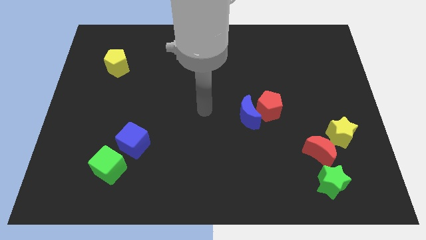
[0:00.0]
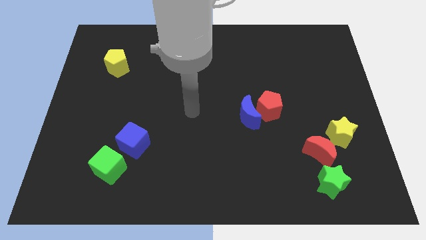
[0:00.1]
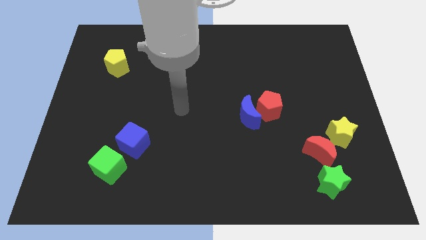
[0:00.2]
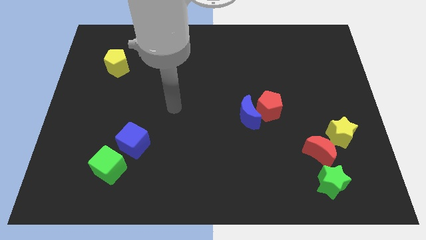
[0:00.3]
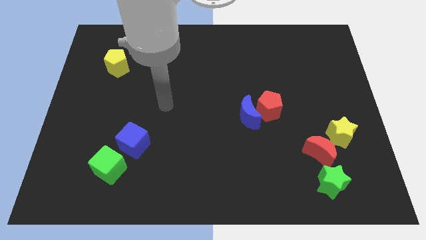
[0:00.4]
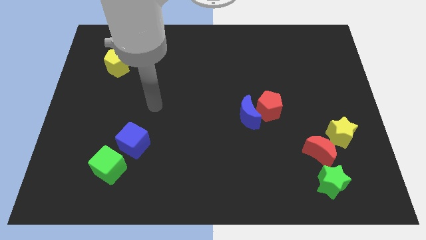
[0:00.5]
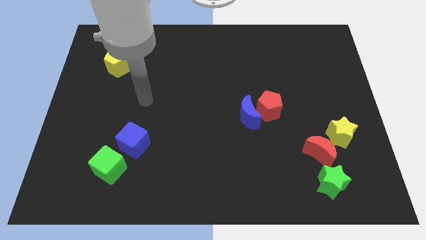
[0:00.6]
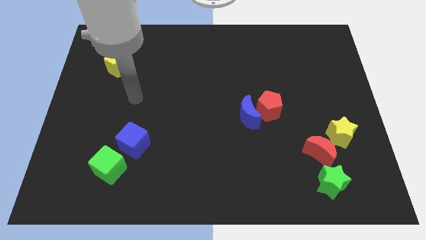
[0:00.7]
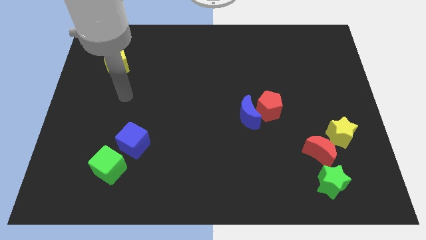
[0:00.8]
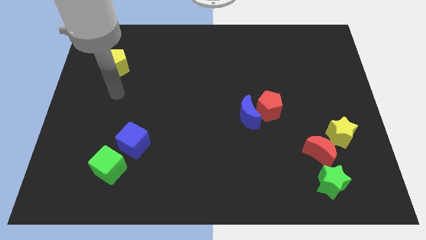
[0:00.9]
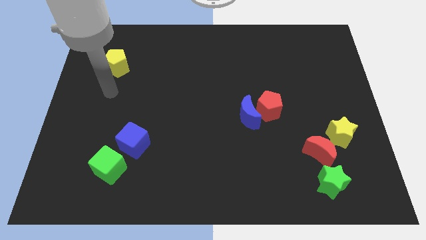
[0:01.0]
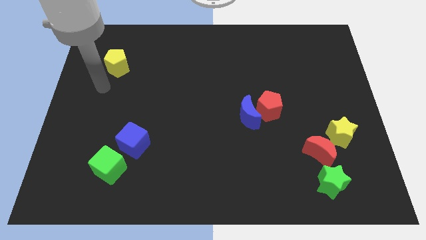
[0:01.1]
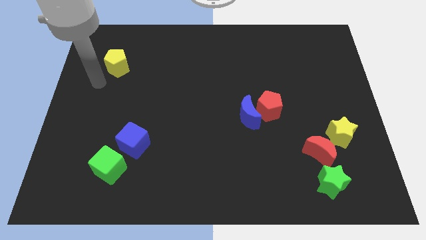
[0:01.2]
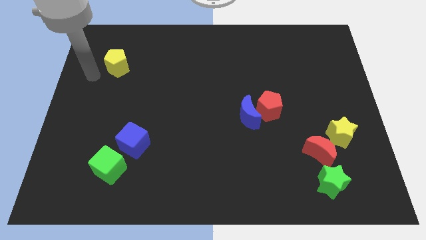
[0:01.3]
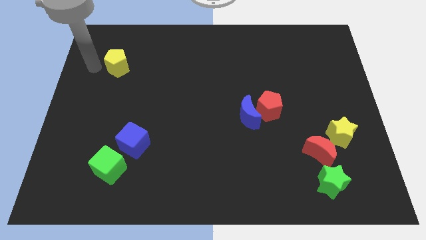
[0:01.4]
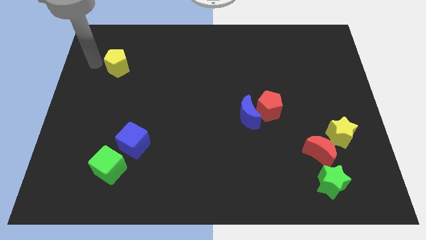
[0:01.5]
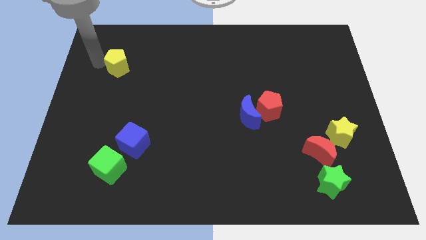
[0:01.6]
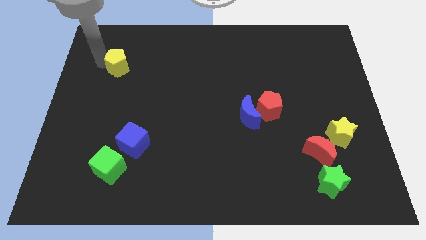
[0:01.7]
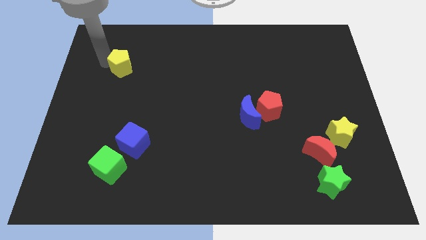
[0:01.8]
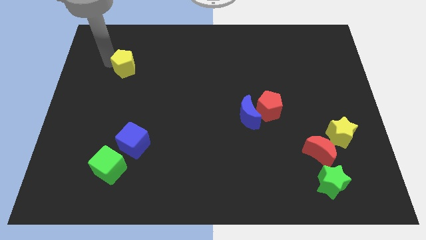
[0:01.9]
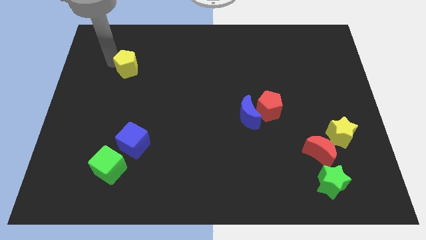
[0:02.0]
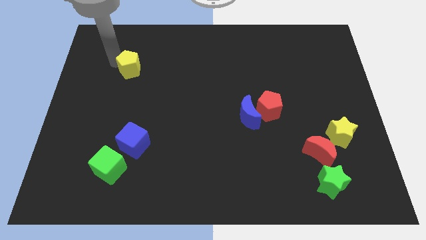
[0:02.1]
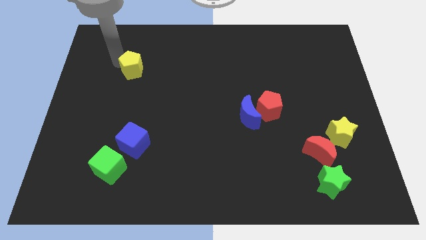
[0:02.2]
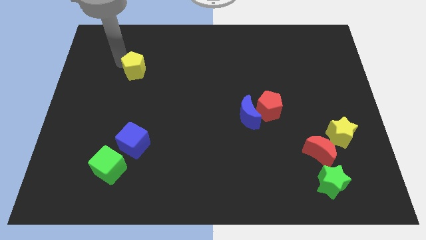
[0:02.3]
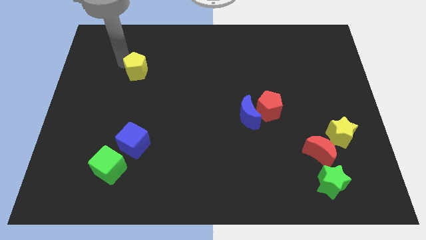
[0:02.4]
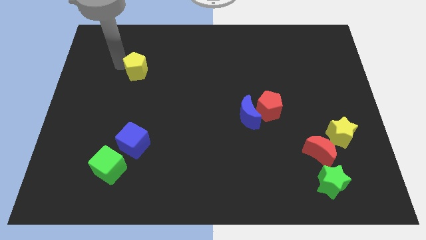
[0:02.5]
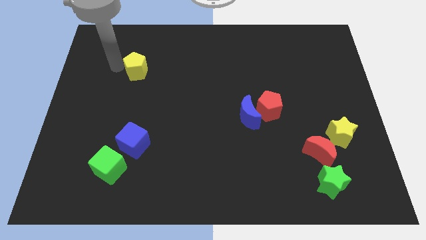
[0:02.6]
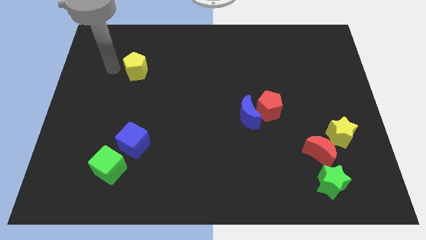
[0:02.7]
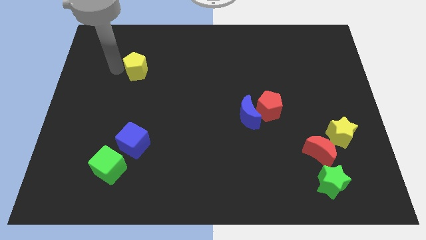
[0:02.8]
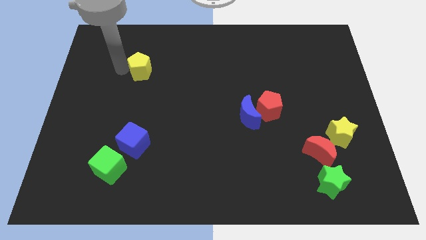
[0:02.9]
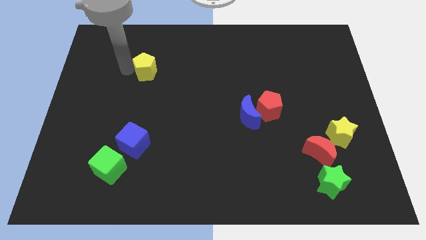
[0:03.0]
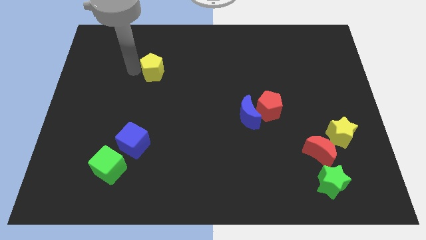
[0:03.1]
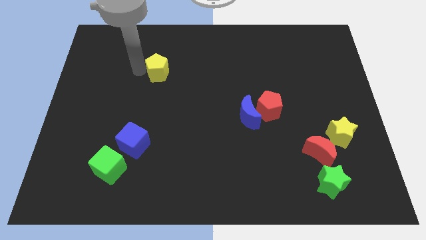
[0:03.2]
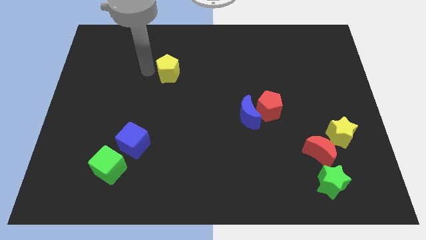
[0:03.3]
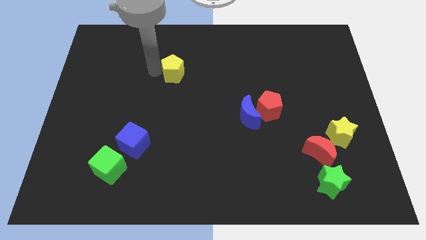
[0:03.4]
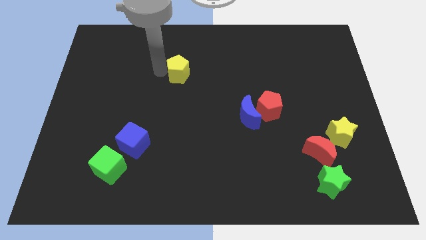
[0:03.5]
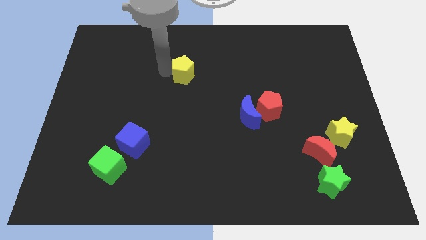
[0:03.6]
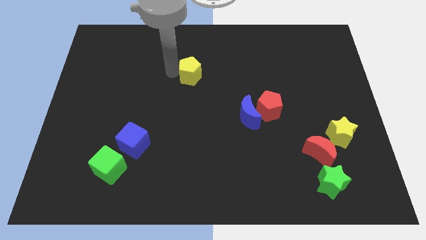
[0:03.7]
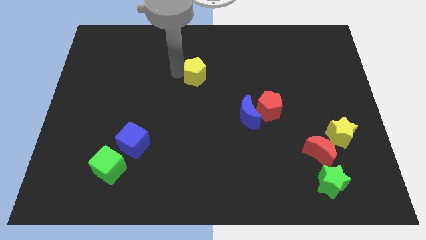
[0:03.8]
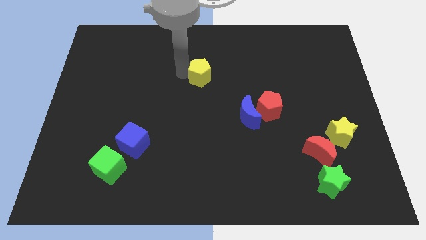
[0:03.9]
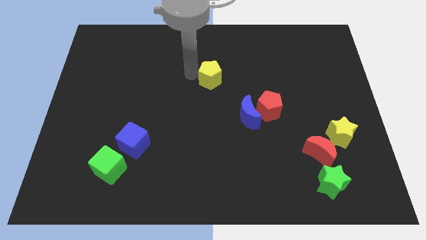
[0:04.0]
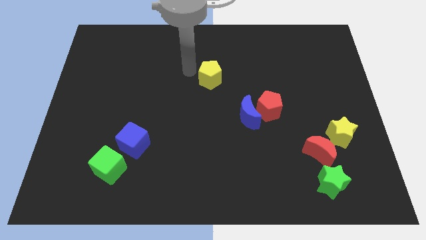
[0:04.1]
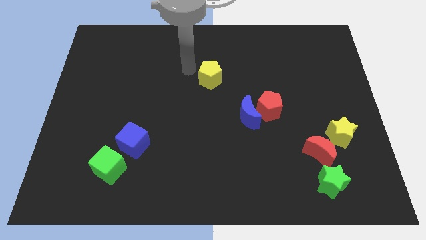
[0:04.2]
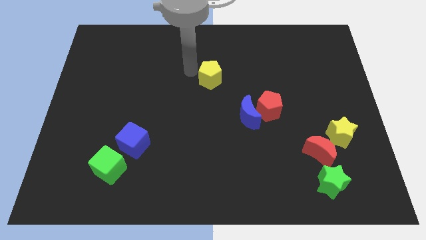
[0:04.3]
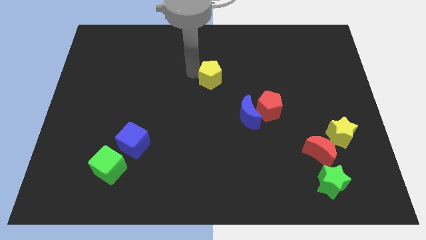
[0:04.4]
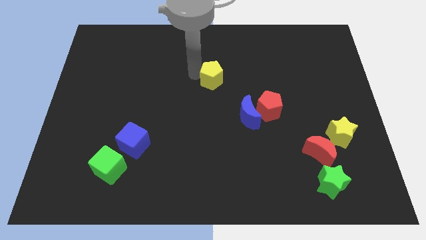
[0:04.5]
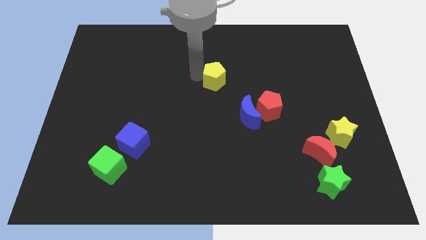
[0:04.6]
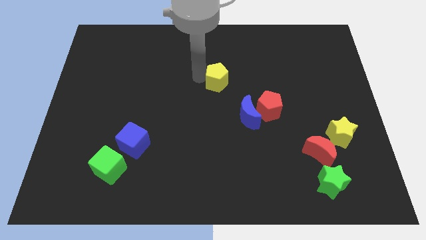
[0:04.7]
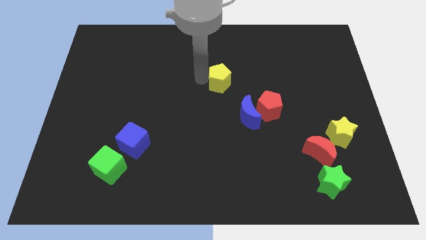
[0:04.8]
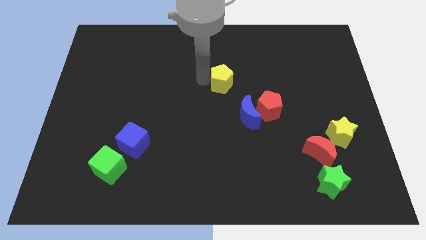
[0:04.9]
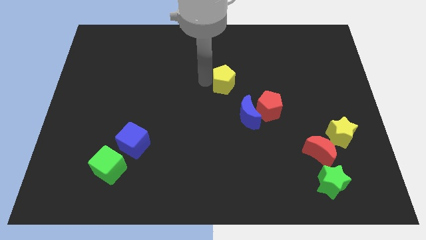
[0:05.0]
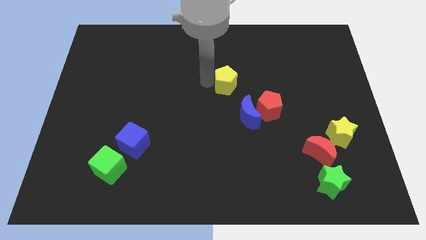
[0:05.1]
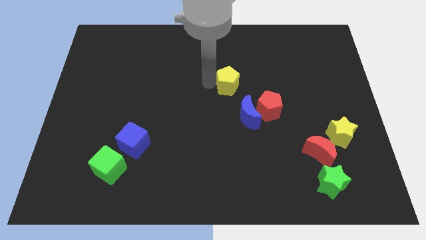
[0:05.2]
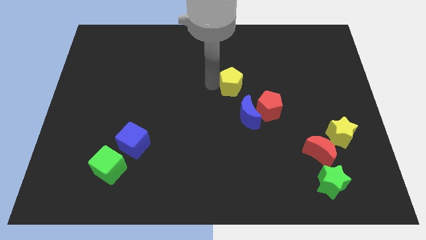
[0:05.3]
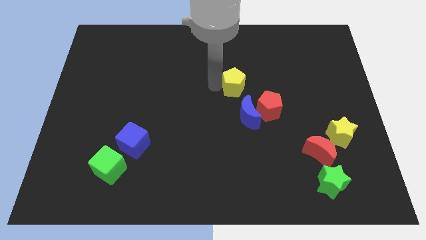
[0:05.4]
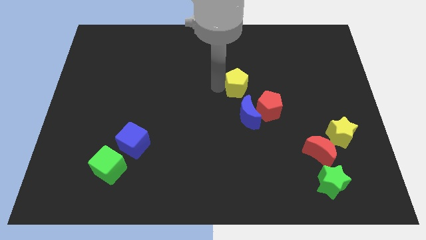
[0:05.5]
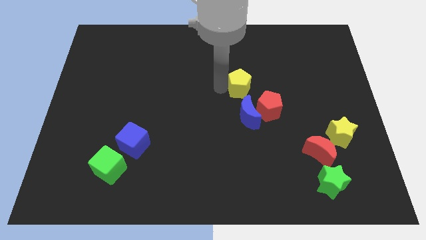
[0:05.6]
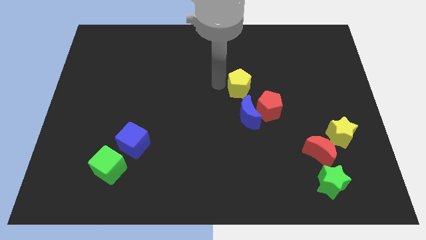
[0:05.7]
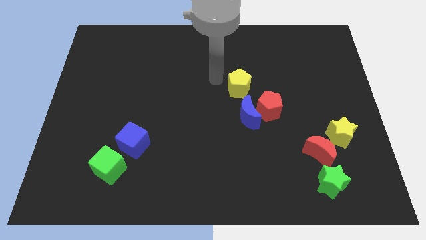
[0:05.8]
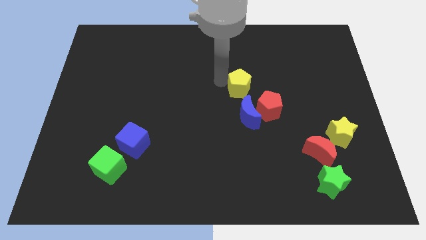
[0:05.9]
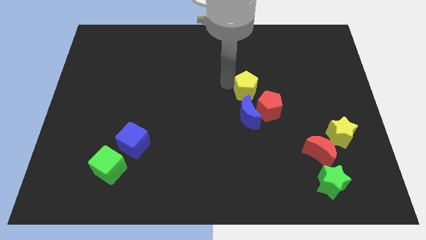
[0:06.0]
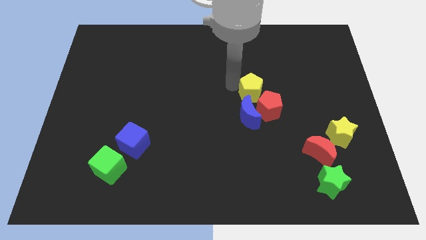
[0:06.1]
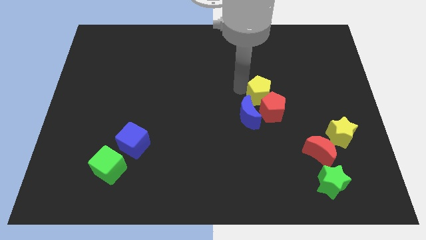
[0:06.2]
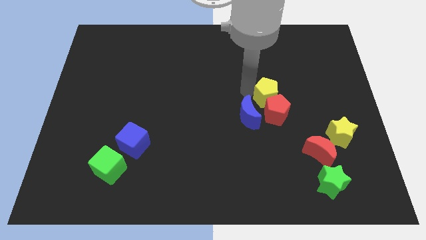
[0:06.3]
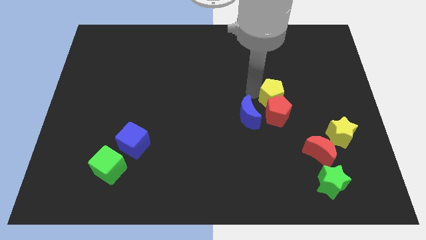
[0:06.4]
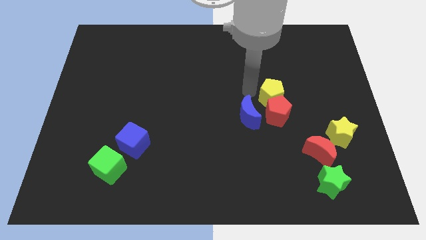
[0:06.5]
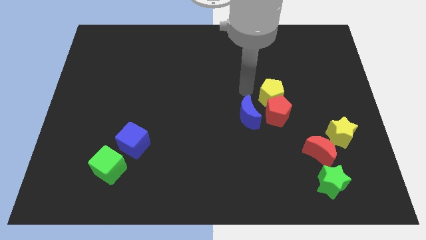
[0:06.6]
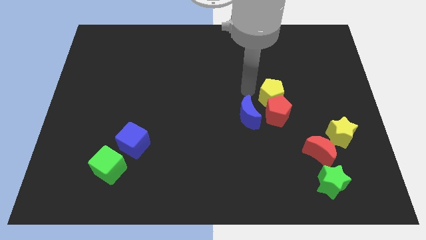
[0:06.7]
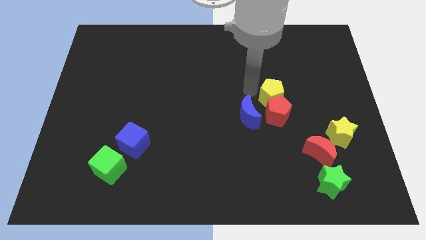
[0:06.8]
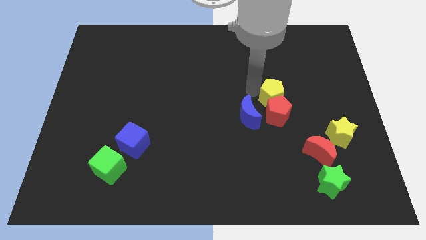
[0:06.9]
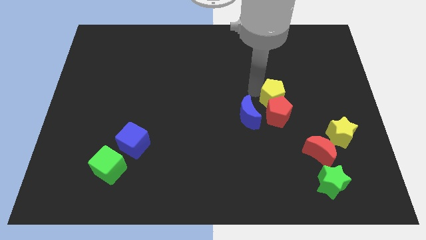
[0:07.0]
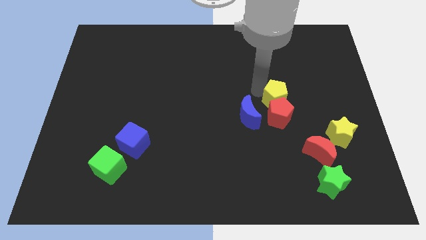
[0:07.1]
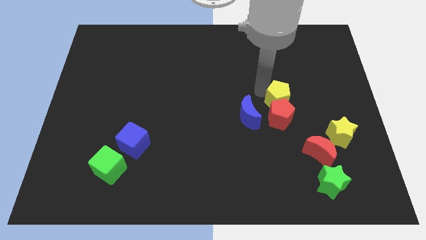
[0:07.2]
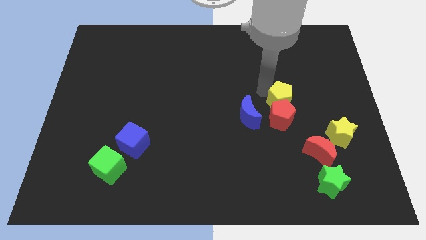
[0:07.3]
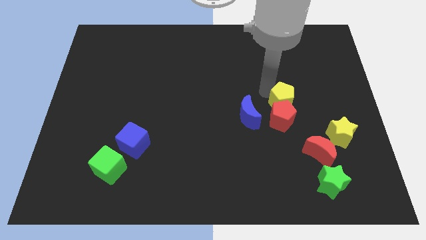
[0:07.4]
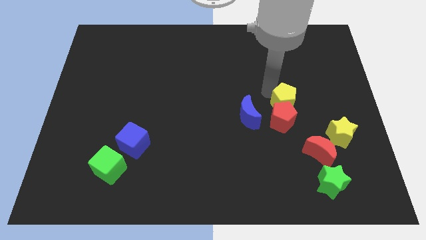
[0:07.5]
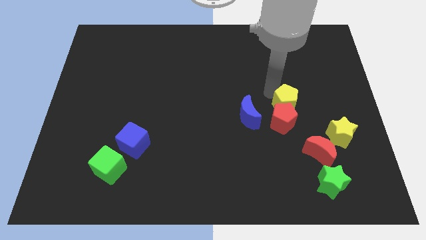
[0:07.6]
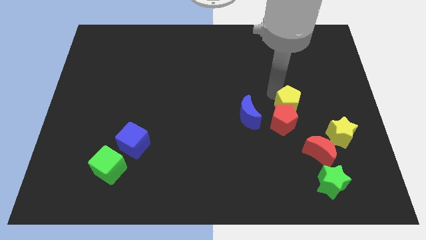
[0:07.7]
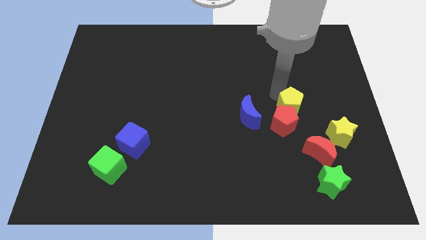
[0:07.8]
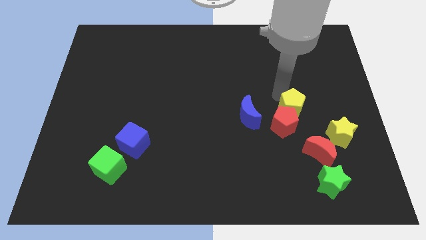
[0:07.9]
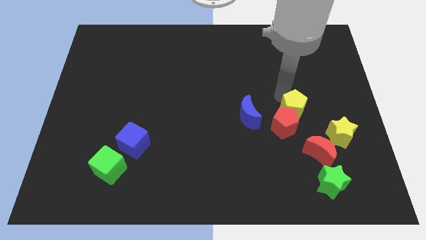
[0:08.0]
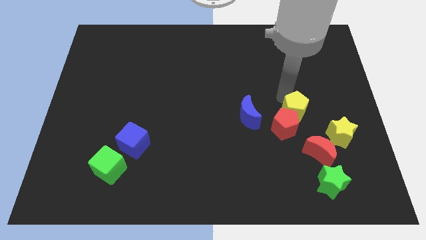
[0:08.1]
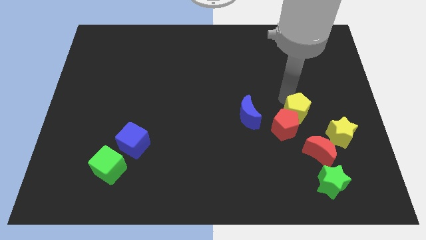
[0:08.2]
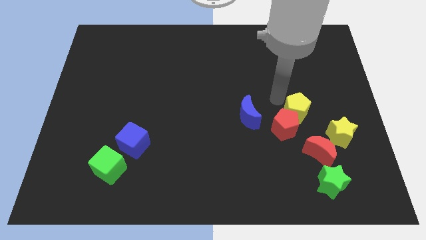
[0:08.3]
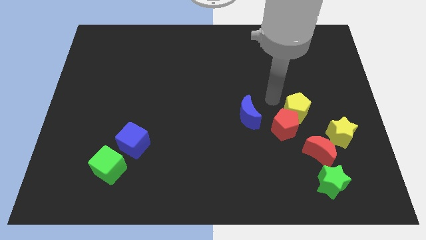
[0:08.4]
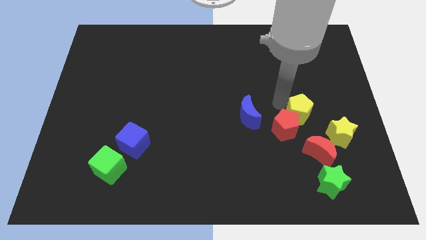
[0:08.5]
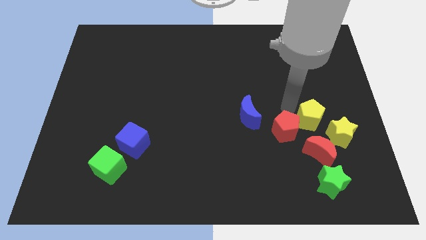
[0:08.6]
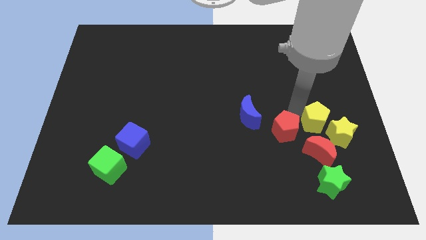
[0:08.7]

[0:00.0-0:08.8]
push the yellow pentagon close to the yellow star
